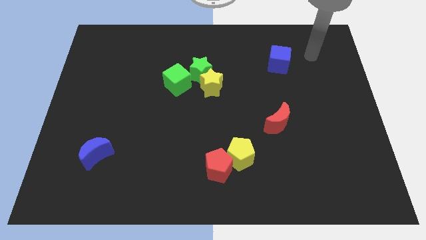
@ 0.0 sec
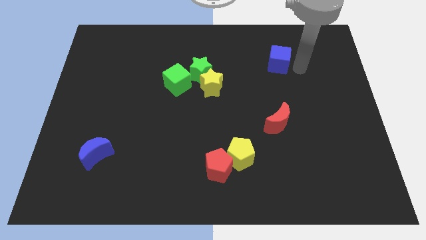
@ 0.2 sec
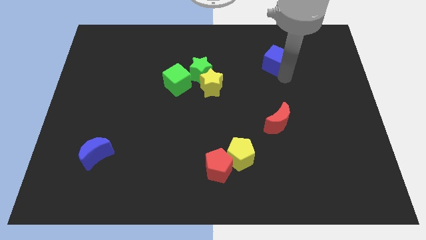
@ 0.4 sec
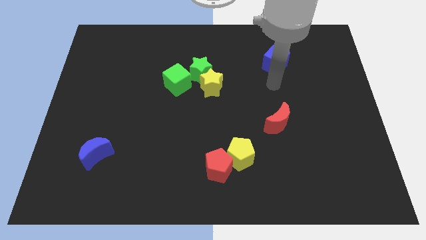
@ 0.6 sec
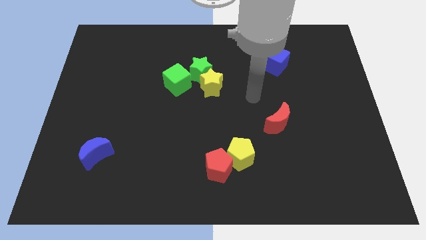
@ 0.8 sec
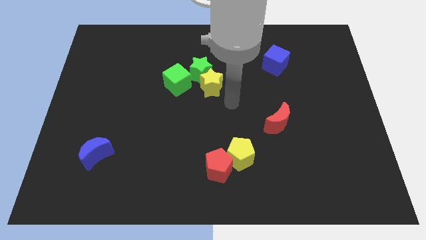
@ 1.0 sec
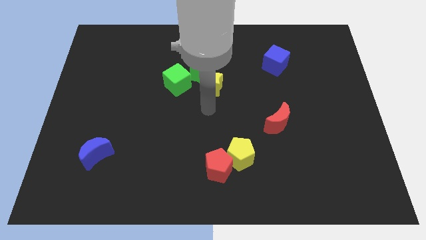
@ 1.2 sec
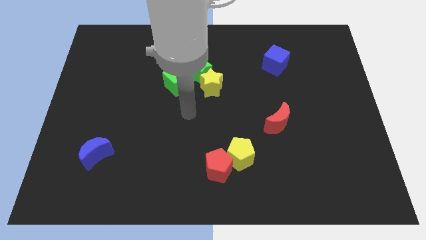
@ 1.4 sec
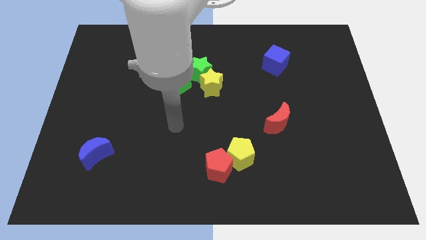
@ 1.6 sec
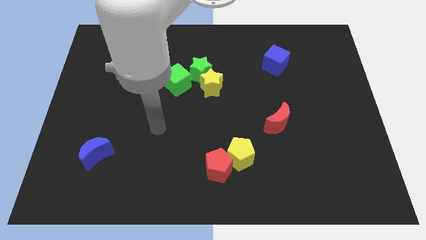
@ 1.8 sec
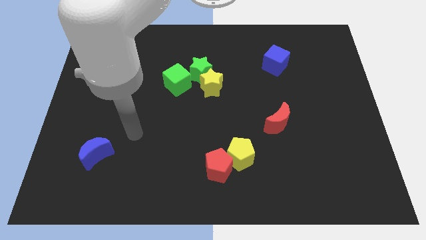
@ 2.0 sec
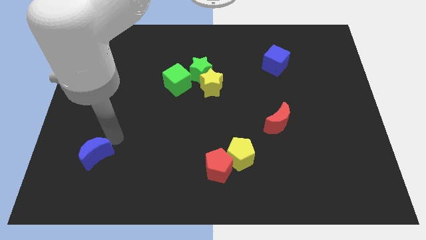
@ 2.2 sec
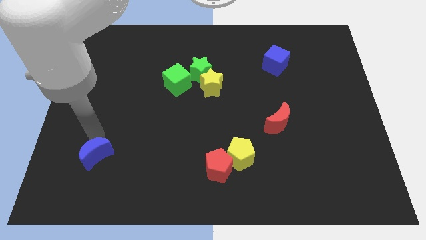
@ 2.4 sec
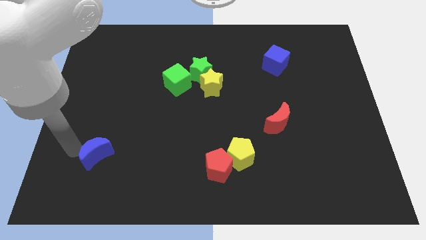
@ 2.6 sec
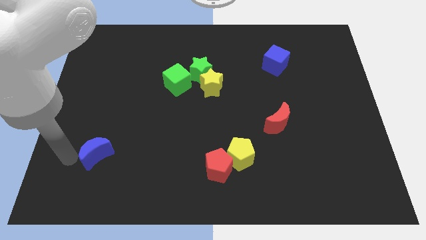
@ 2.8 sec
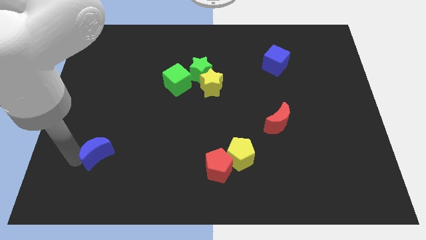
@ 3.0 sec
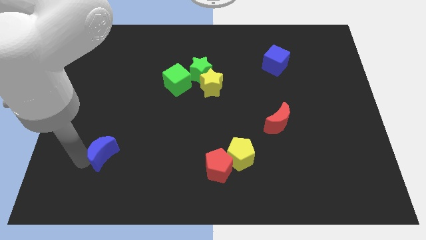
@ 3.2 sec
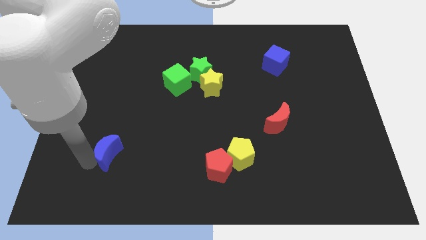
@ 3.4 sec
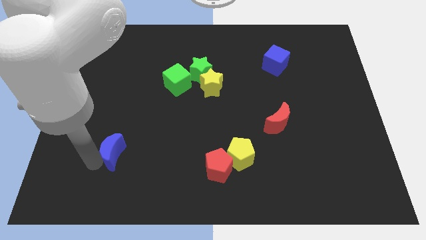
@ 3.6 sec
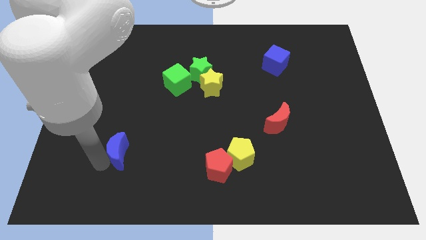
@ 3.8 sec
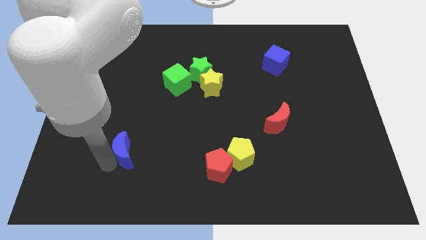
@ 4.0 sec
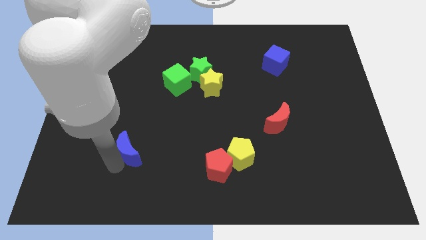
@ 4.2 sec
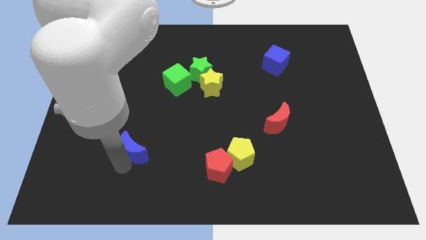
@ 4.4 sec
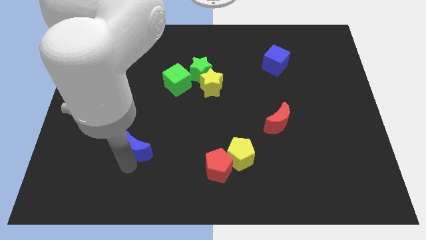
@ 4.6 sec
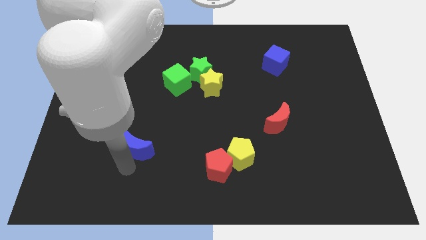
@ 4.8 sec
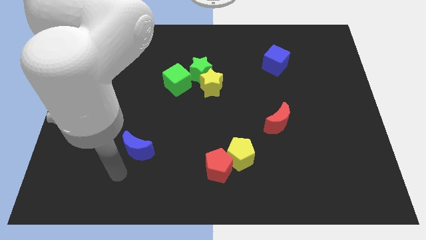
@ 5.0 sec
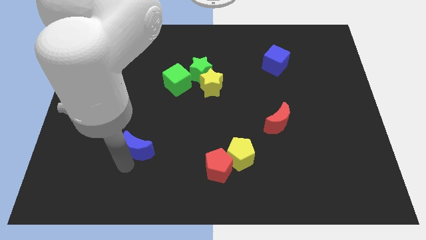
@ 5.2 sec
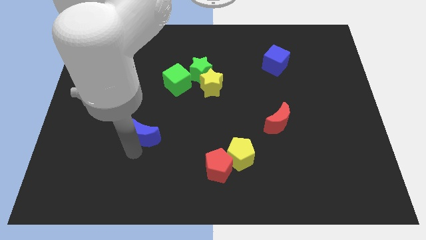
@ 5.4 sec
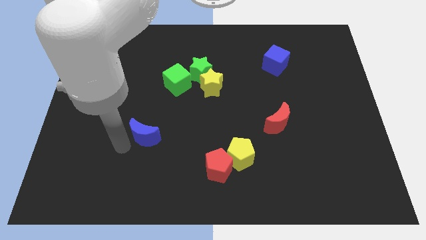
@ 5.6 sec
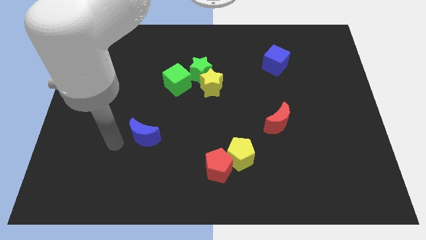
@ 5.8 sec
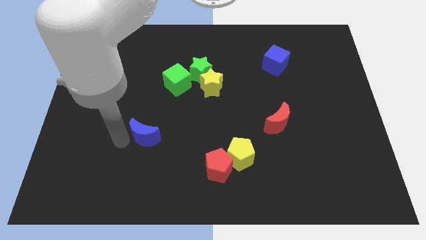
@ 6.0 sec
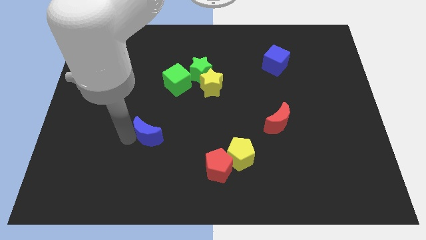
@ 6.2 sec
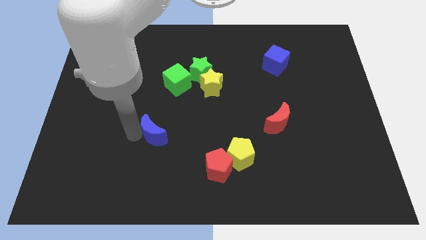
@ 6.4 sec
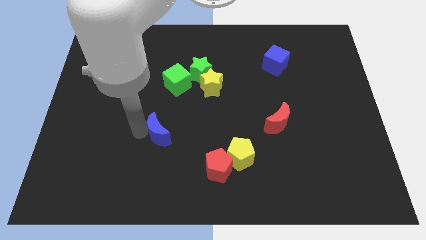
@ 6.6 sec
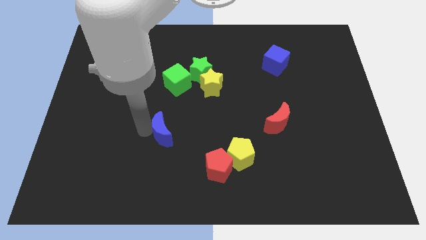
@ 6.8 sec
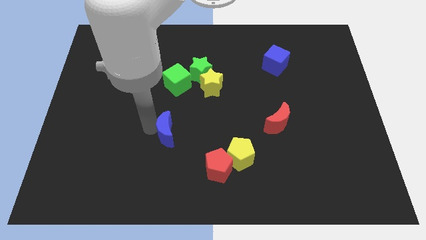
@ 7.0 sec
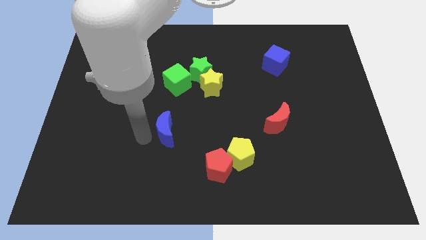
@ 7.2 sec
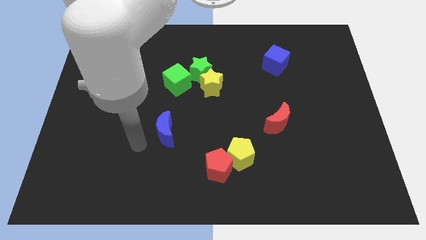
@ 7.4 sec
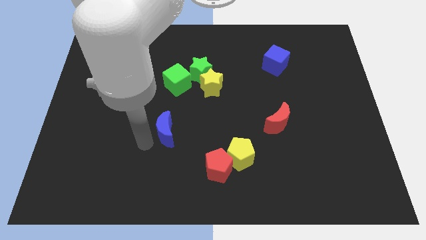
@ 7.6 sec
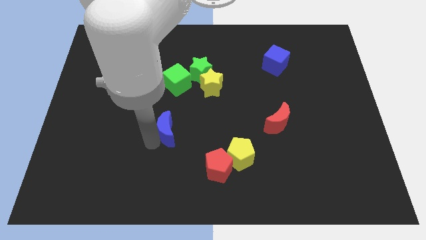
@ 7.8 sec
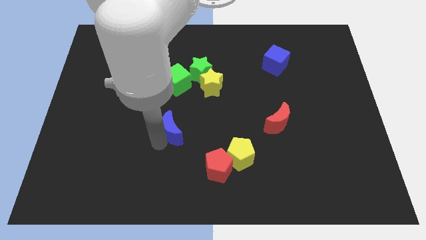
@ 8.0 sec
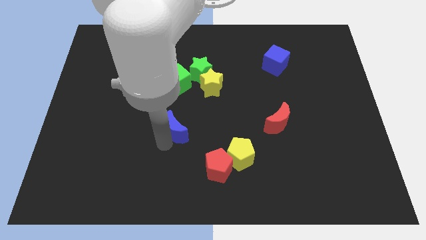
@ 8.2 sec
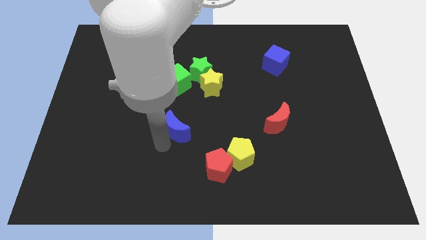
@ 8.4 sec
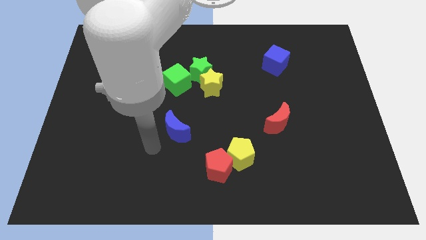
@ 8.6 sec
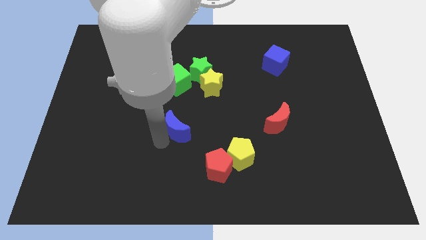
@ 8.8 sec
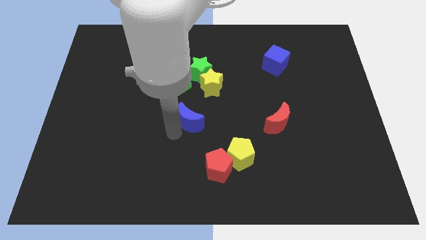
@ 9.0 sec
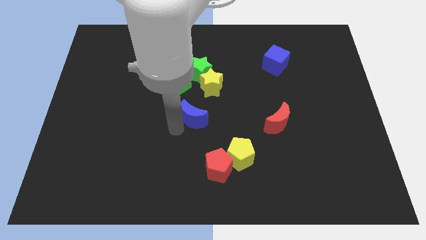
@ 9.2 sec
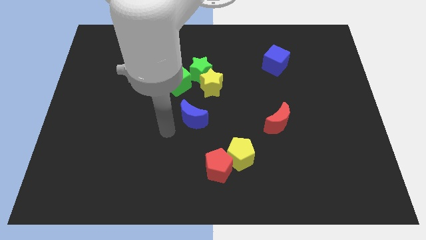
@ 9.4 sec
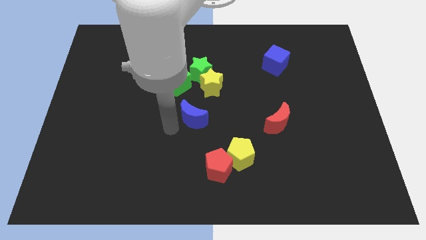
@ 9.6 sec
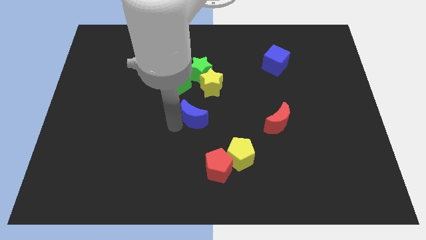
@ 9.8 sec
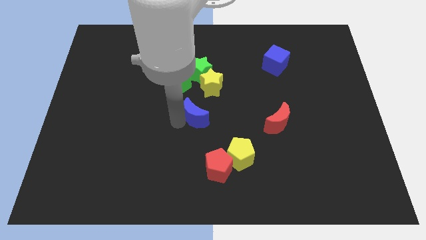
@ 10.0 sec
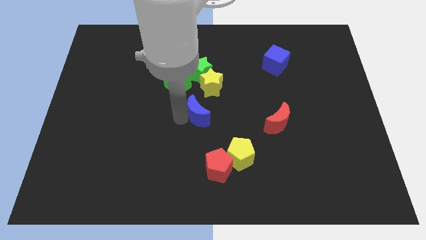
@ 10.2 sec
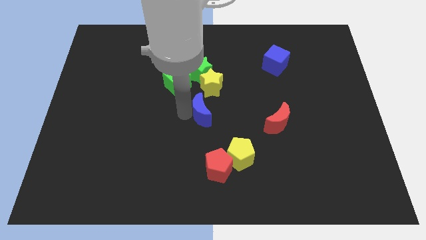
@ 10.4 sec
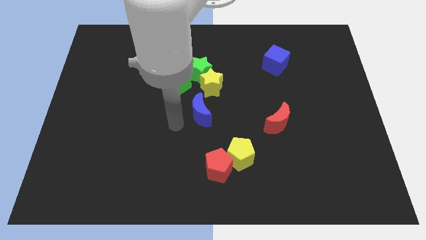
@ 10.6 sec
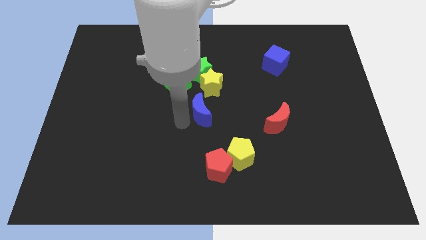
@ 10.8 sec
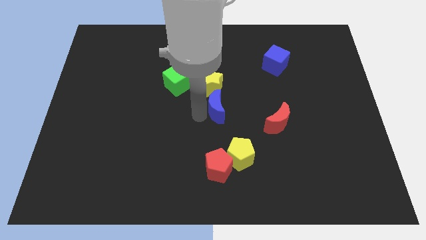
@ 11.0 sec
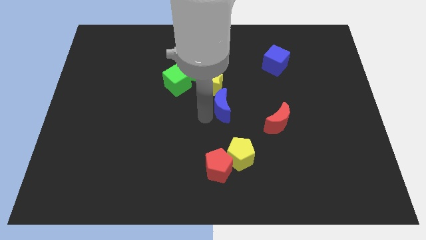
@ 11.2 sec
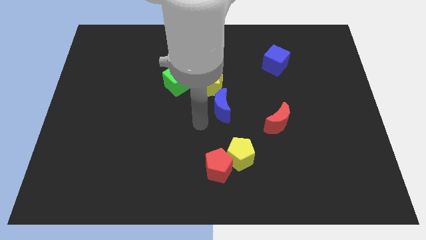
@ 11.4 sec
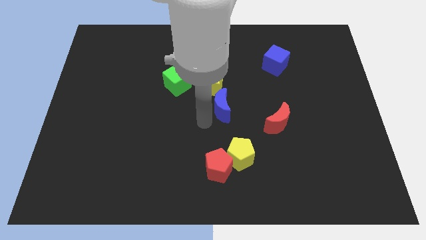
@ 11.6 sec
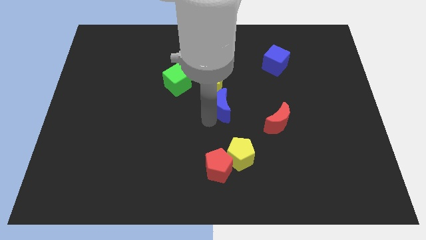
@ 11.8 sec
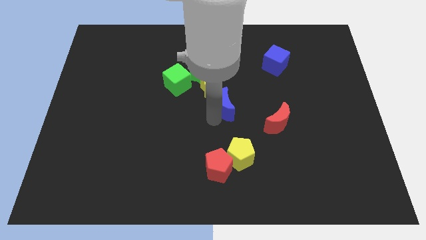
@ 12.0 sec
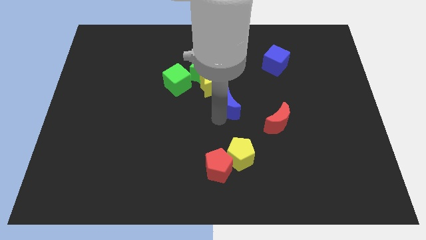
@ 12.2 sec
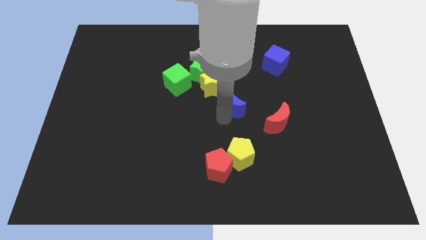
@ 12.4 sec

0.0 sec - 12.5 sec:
put the blue moon diagonally up and to the left of the red moon

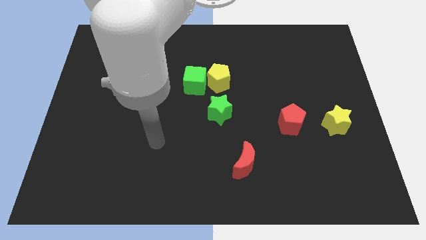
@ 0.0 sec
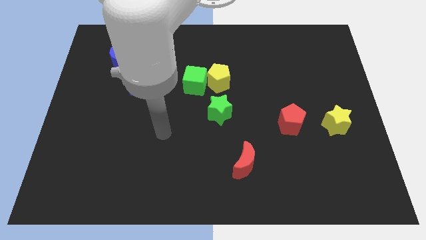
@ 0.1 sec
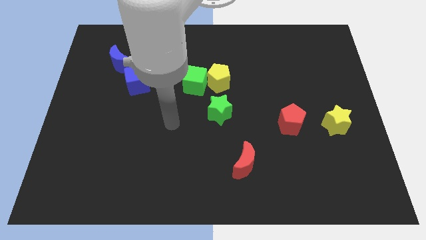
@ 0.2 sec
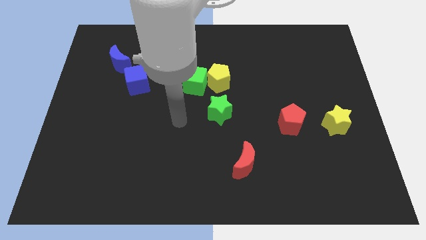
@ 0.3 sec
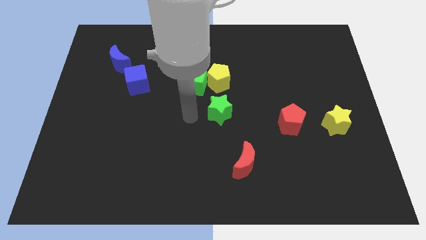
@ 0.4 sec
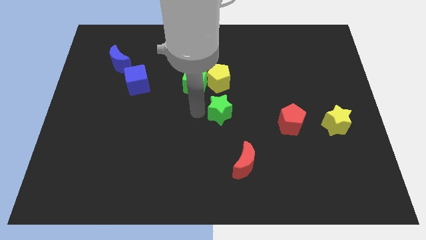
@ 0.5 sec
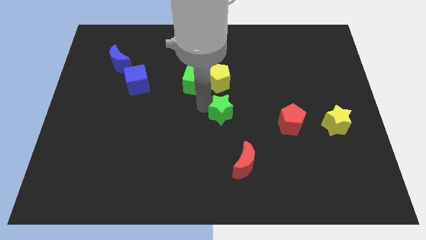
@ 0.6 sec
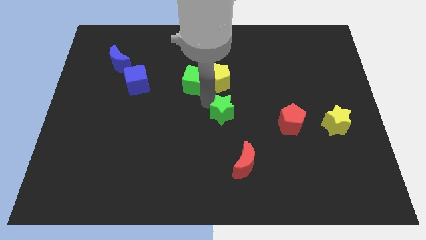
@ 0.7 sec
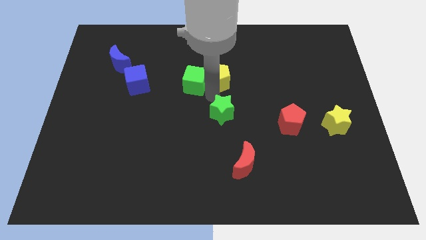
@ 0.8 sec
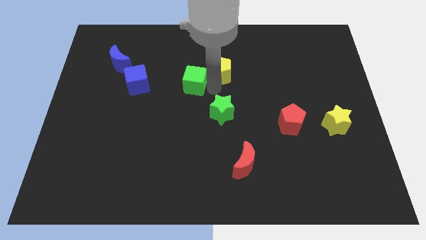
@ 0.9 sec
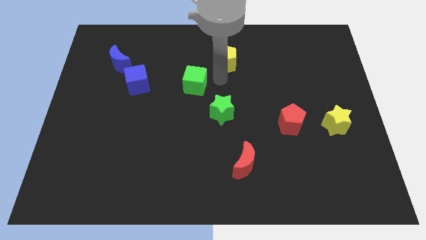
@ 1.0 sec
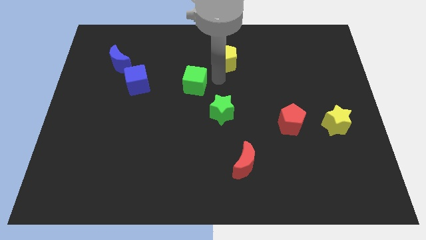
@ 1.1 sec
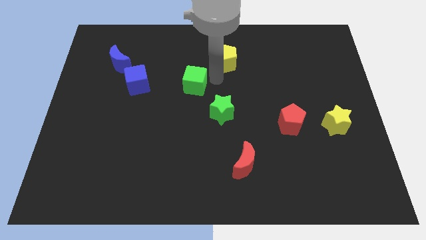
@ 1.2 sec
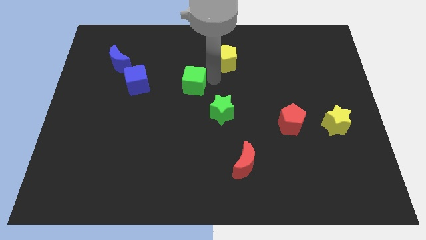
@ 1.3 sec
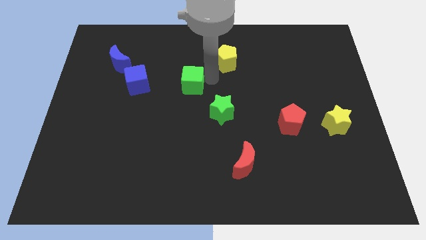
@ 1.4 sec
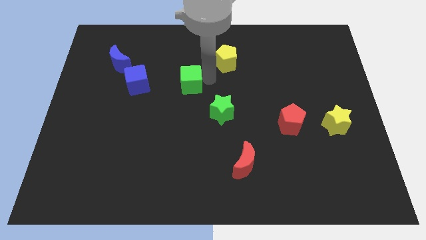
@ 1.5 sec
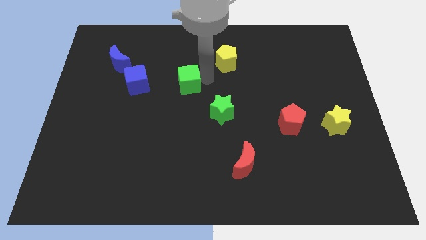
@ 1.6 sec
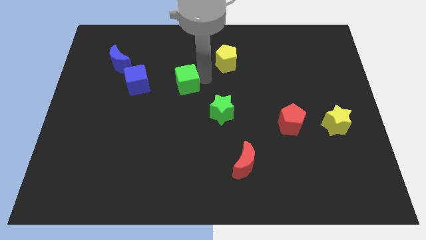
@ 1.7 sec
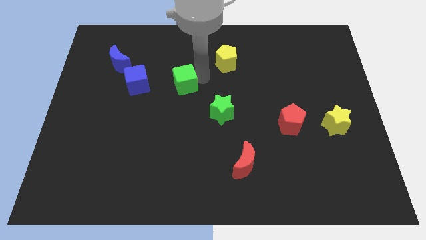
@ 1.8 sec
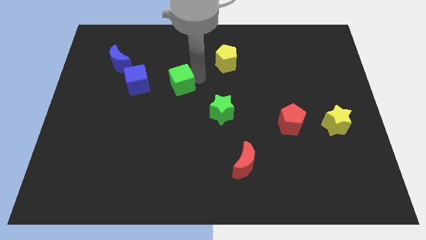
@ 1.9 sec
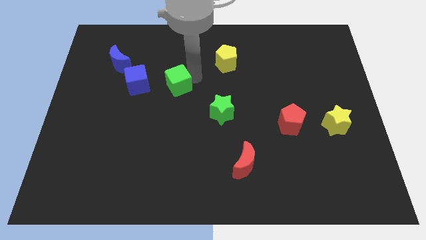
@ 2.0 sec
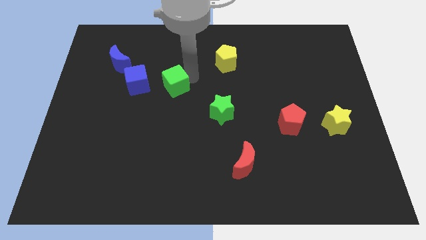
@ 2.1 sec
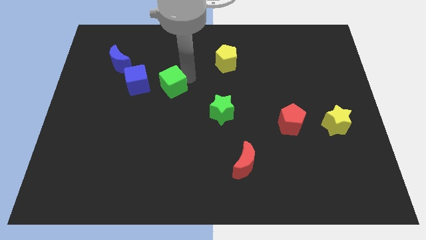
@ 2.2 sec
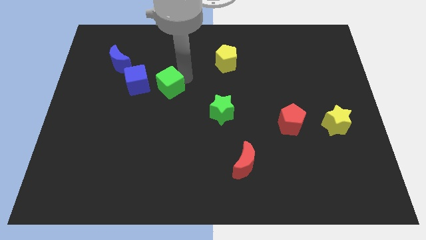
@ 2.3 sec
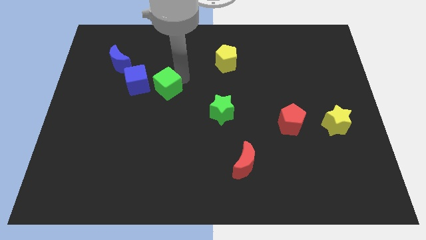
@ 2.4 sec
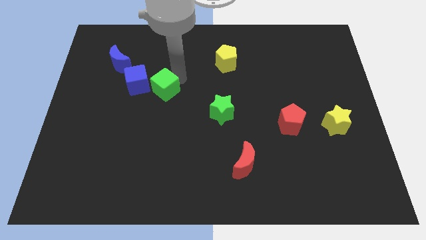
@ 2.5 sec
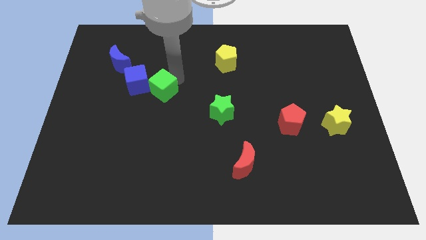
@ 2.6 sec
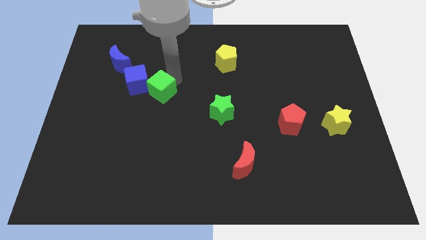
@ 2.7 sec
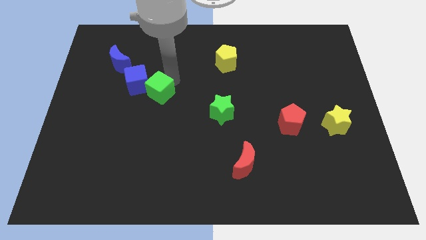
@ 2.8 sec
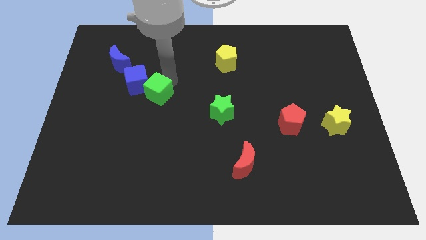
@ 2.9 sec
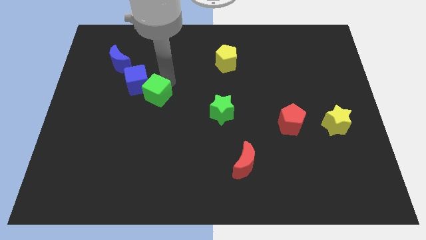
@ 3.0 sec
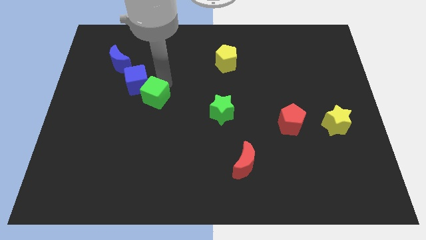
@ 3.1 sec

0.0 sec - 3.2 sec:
put the green cube to the bottom side of the blue cube
